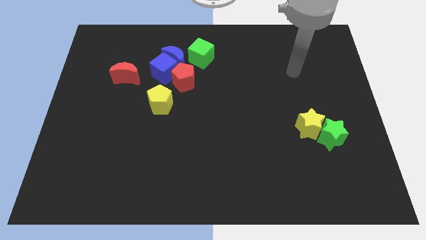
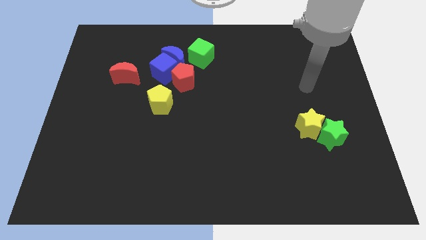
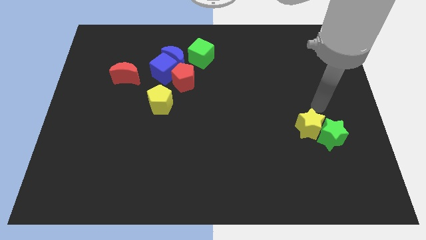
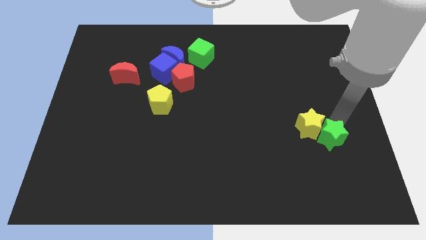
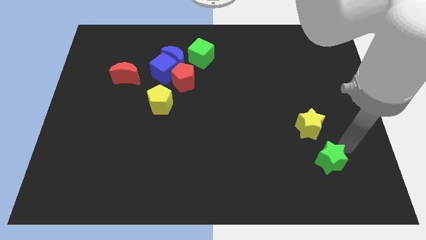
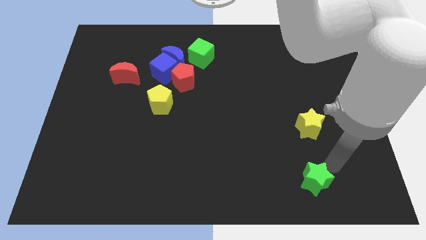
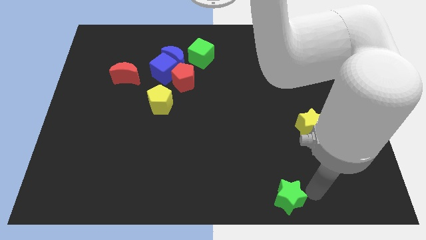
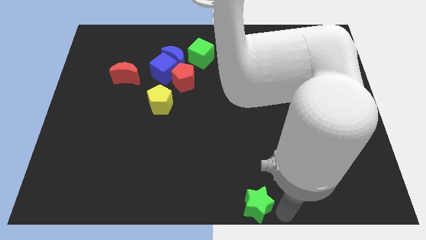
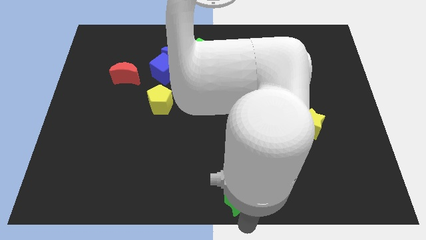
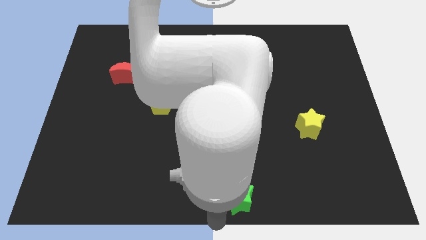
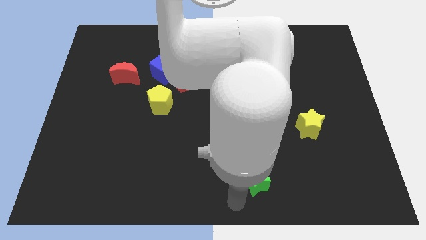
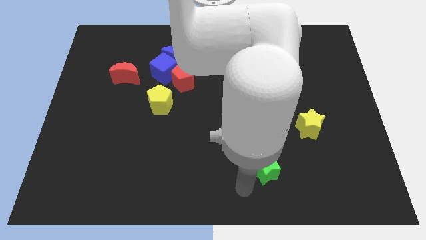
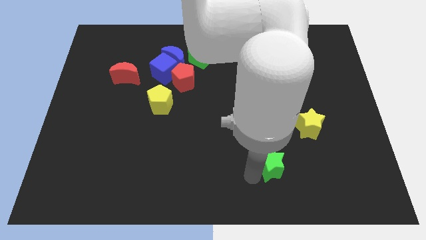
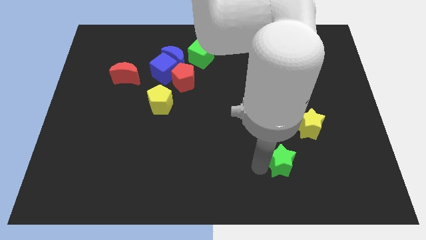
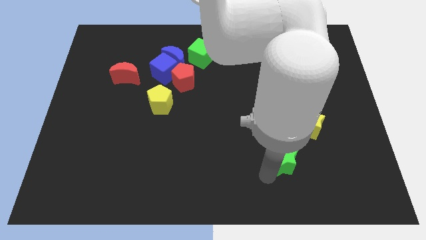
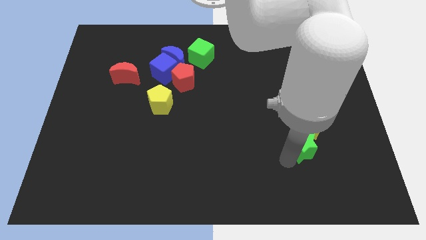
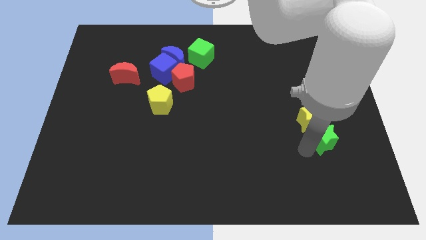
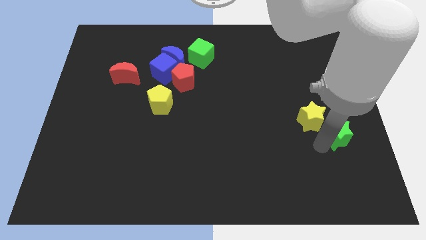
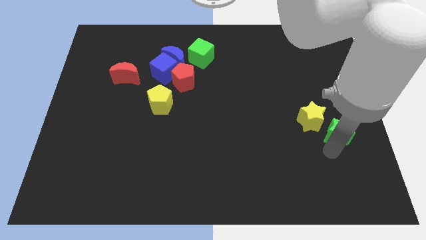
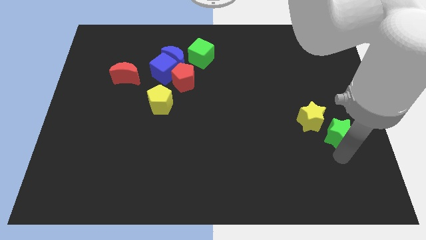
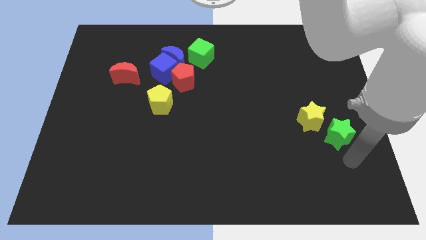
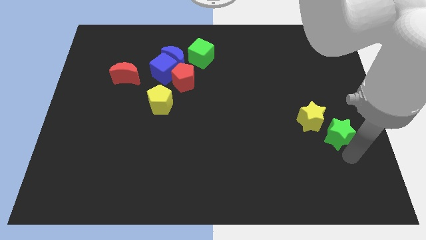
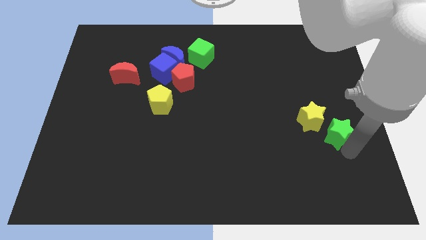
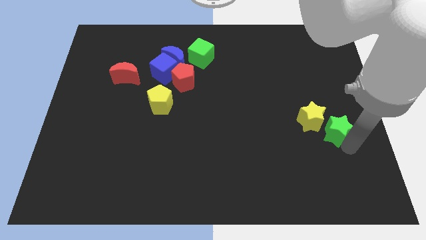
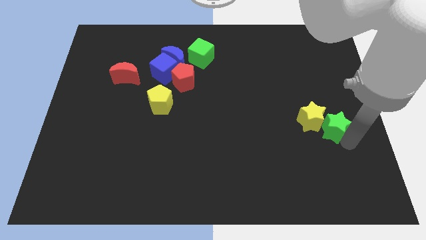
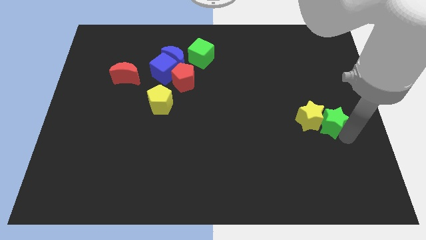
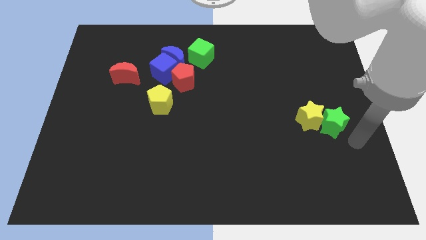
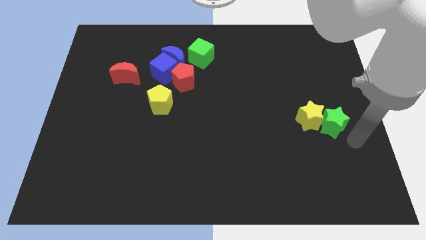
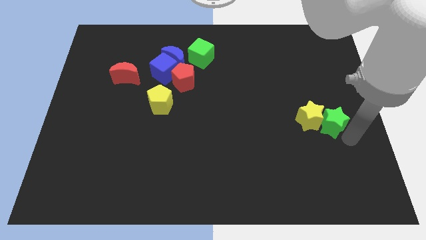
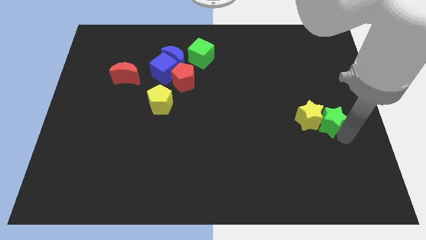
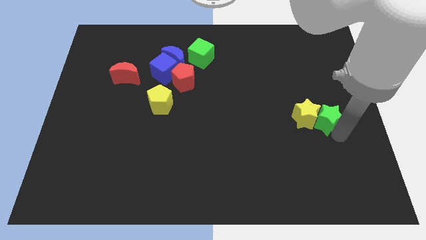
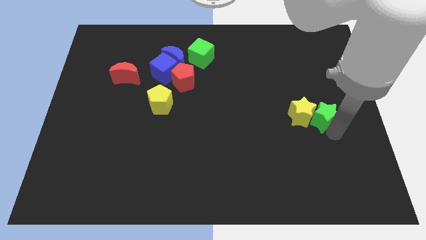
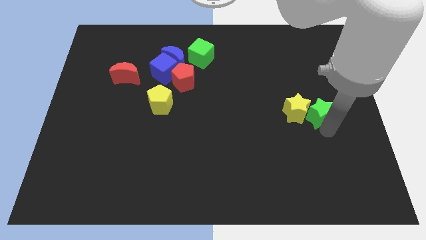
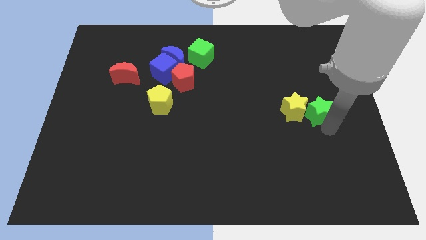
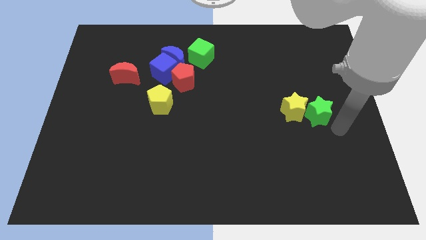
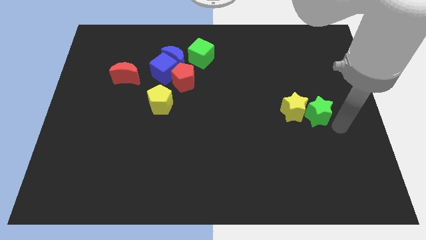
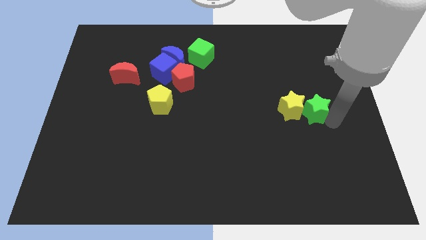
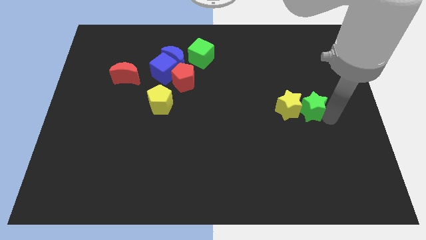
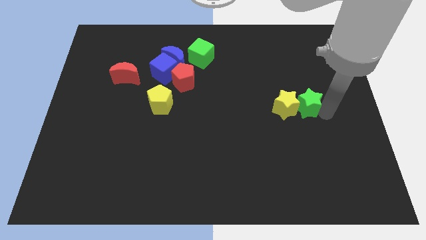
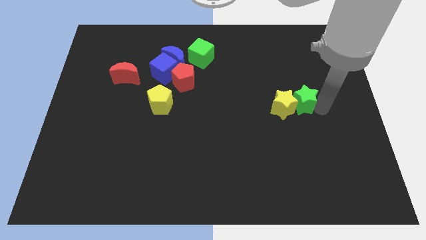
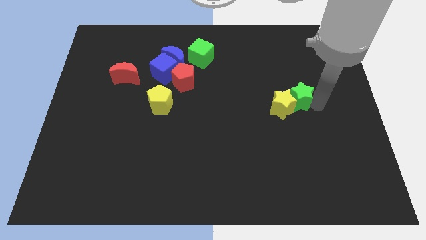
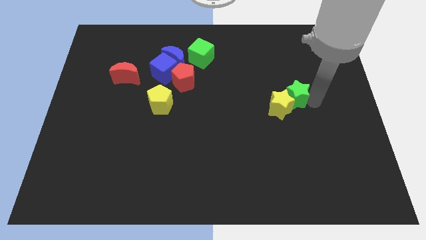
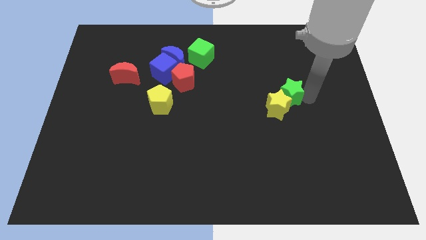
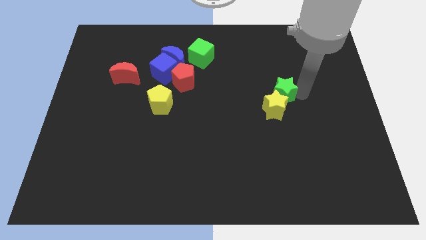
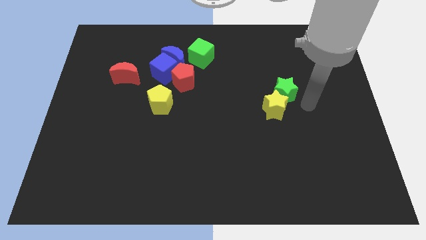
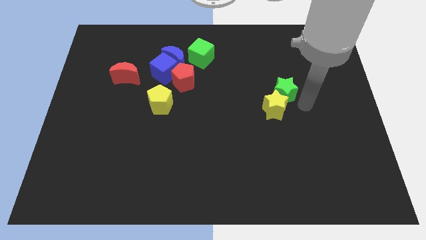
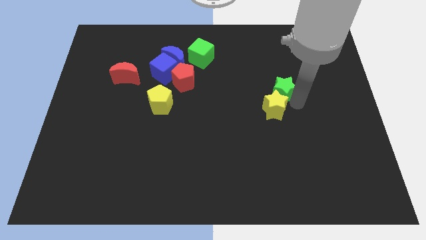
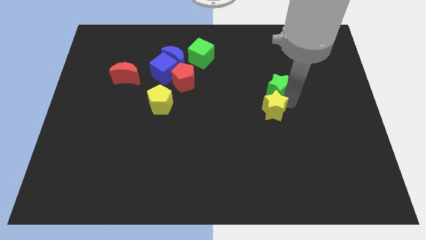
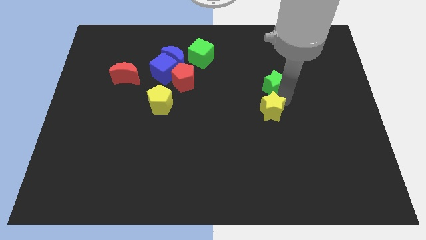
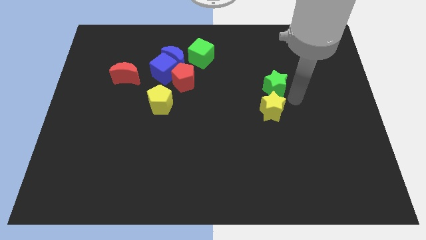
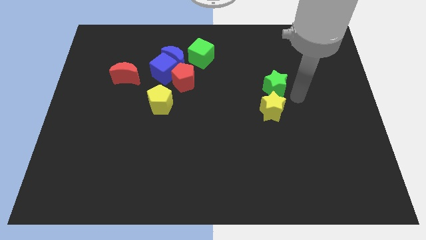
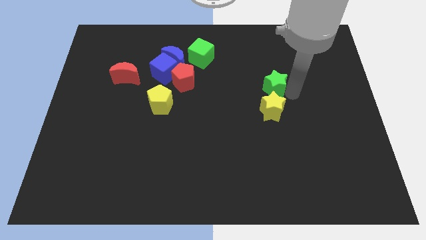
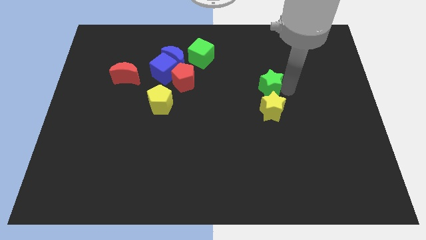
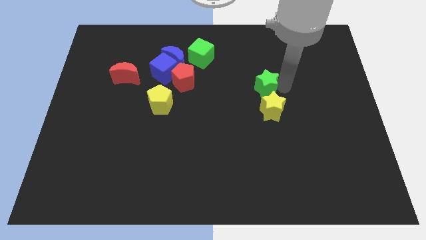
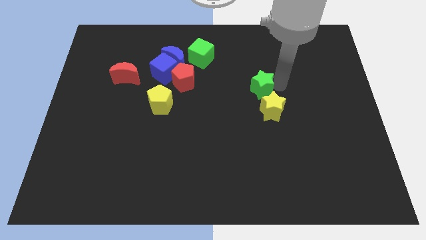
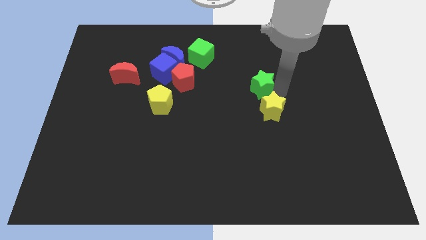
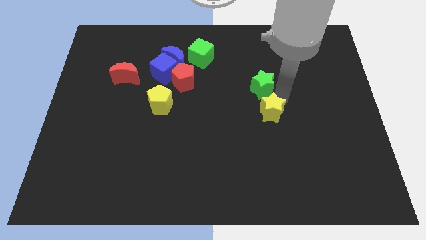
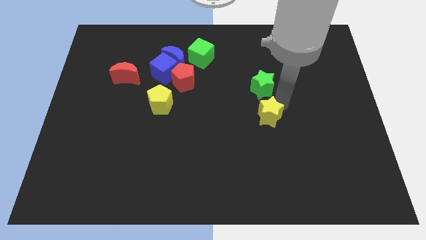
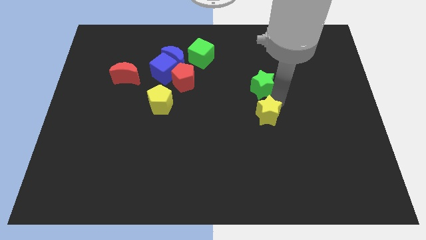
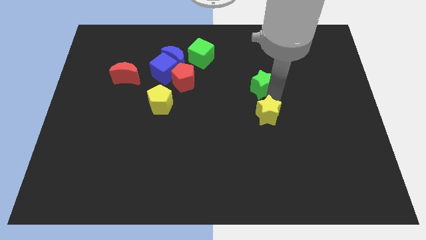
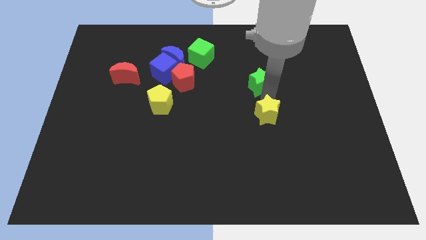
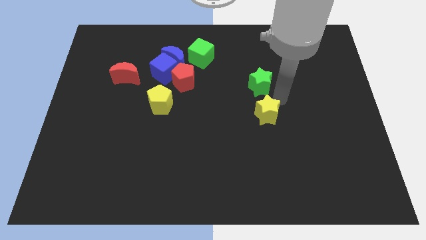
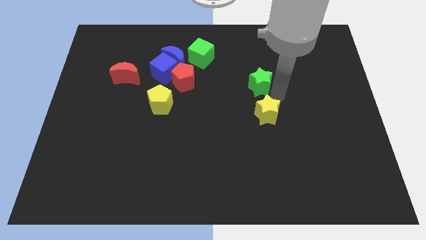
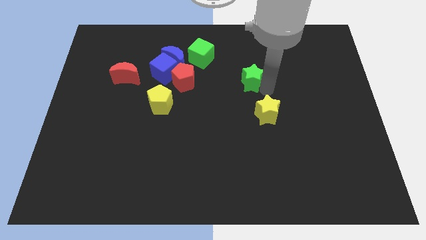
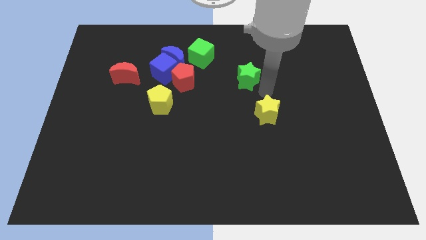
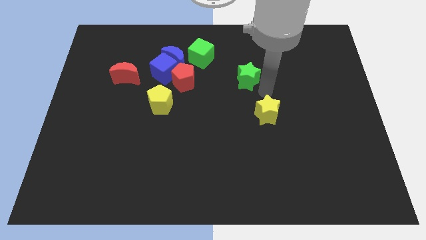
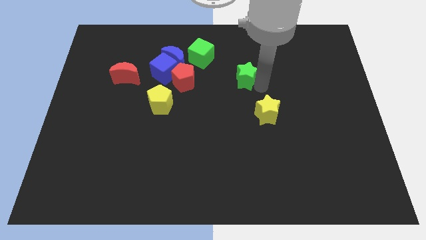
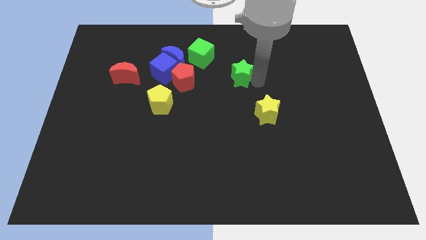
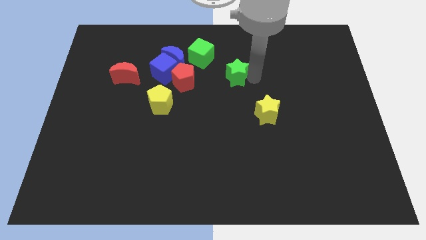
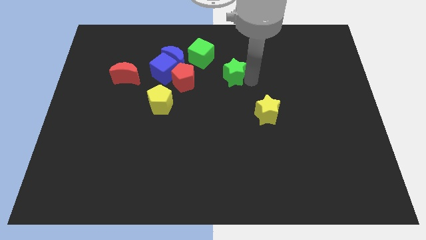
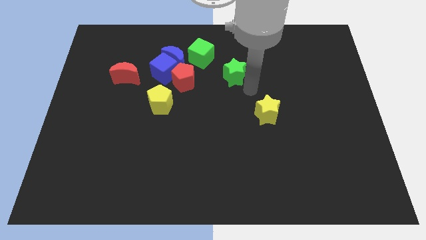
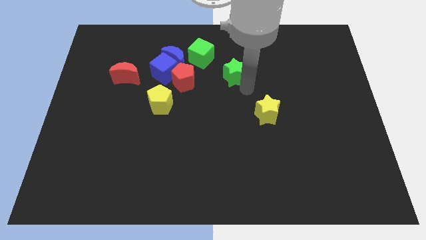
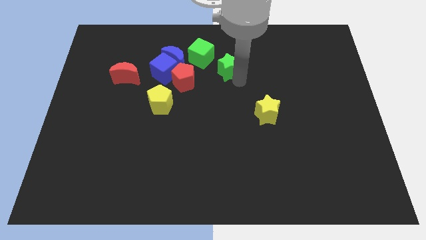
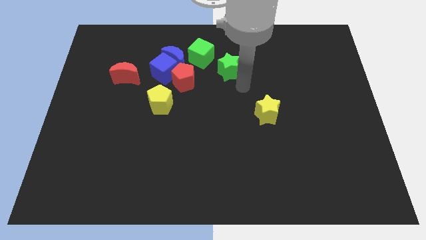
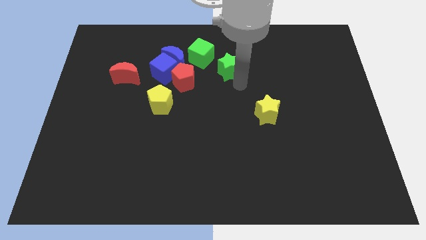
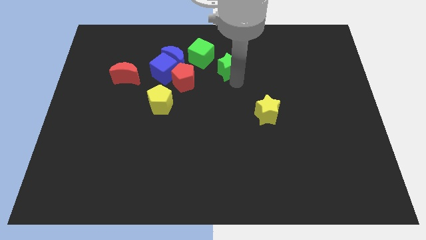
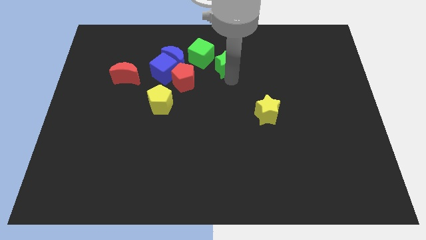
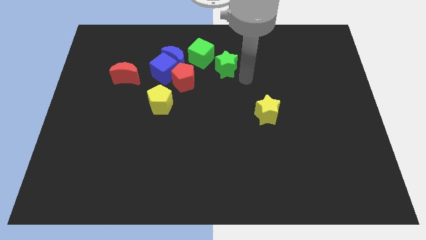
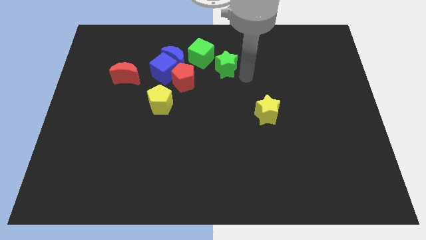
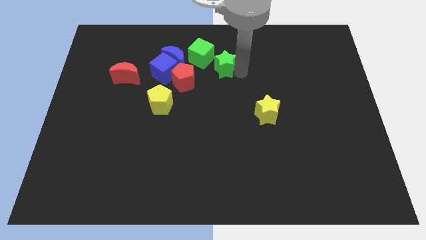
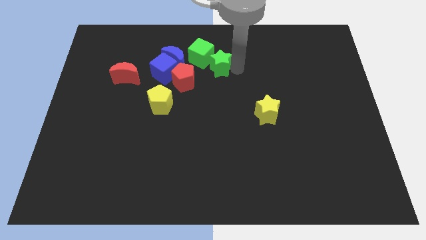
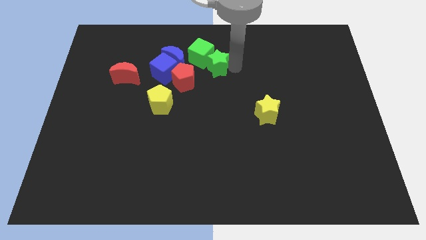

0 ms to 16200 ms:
slide the green star close to the green cube
